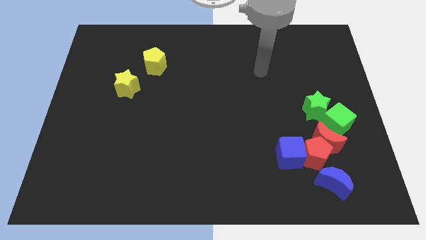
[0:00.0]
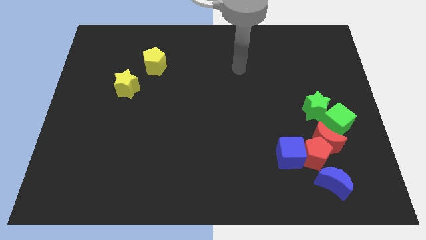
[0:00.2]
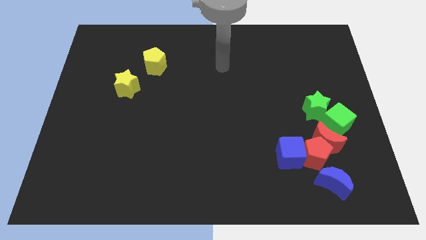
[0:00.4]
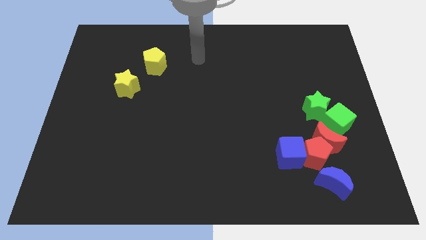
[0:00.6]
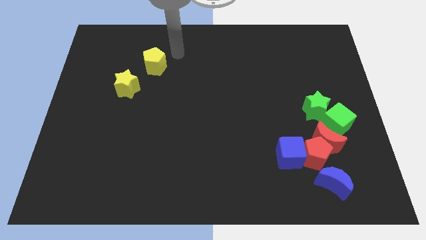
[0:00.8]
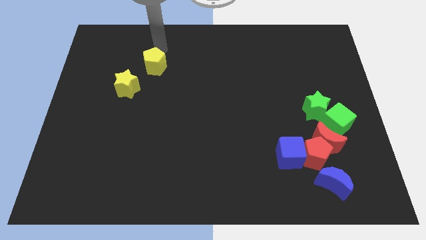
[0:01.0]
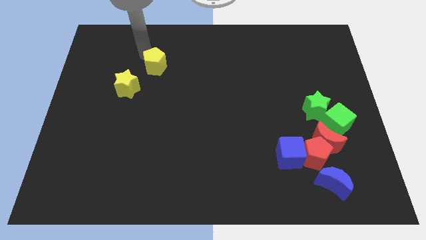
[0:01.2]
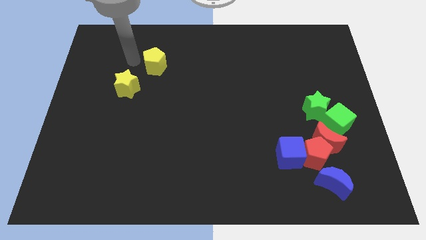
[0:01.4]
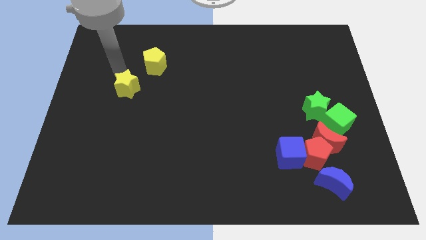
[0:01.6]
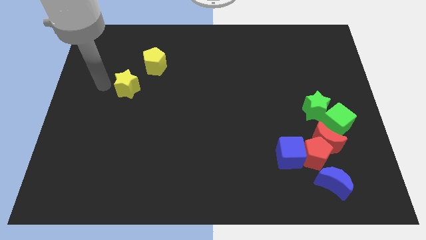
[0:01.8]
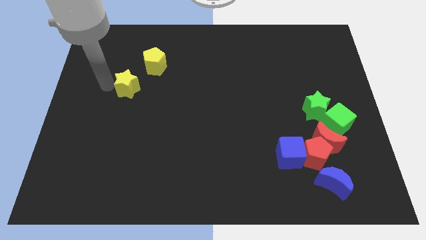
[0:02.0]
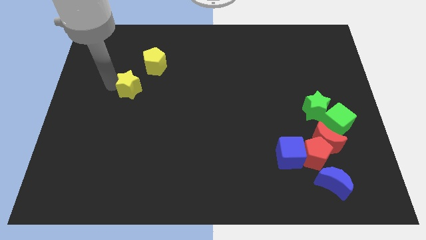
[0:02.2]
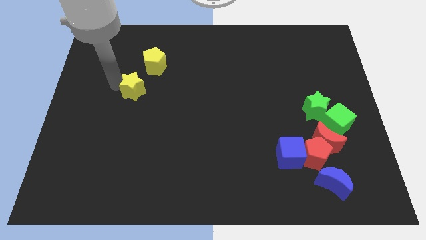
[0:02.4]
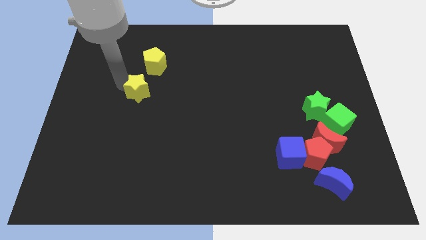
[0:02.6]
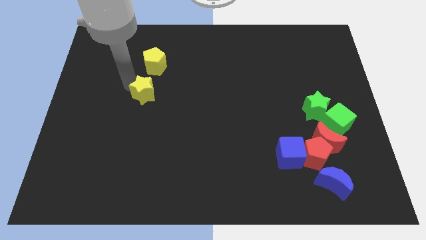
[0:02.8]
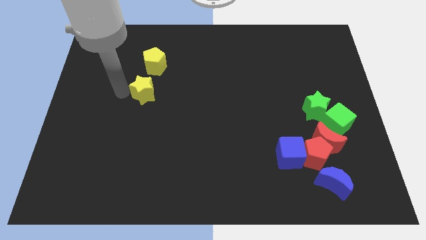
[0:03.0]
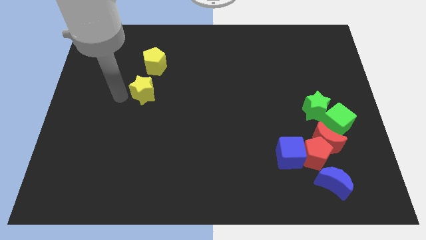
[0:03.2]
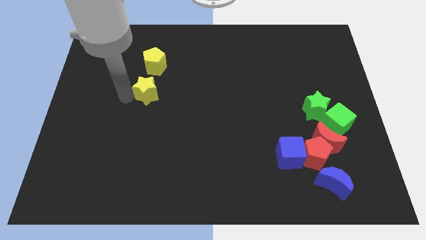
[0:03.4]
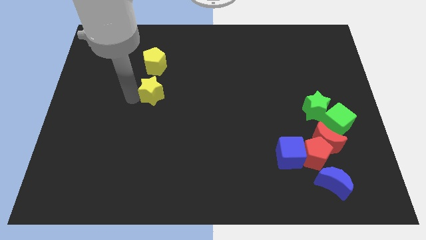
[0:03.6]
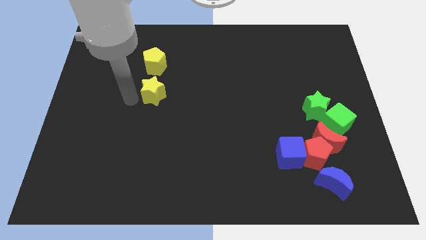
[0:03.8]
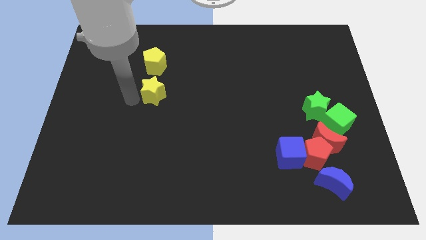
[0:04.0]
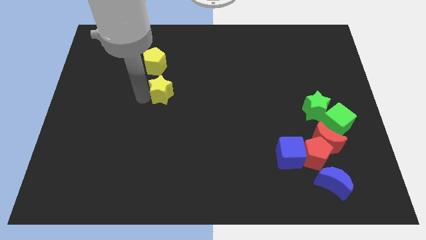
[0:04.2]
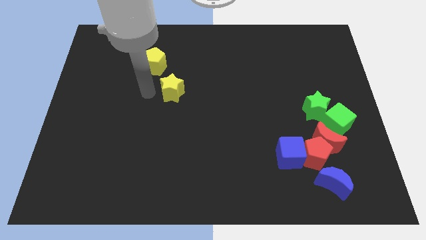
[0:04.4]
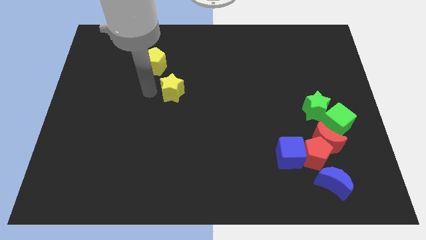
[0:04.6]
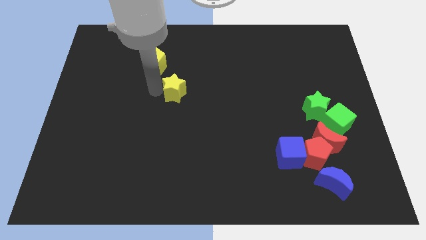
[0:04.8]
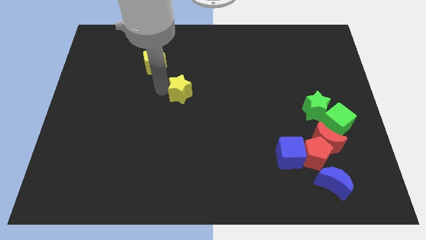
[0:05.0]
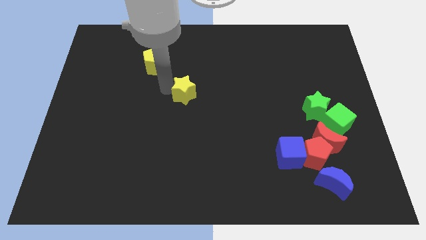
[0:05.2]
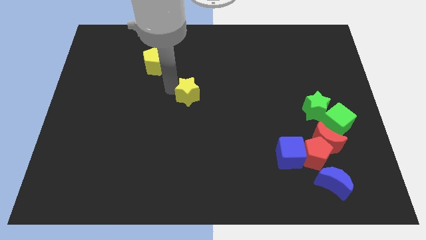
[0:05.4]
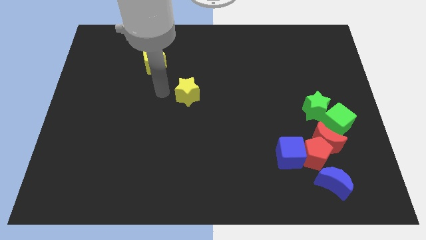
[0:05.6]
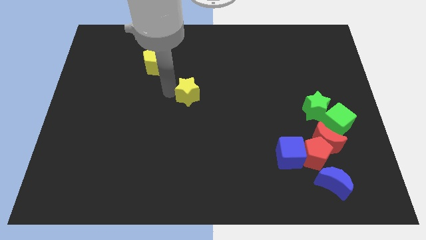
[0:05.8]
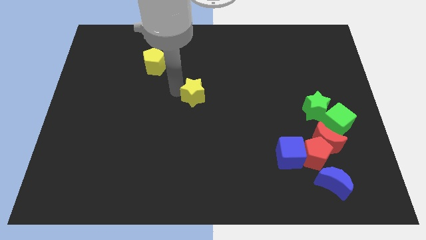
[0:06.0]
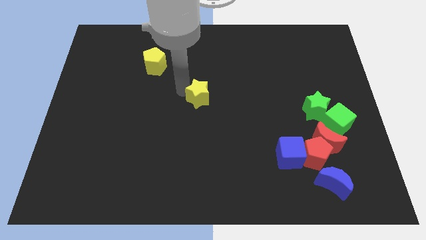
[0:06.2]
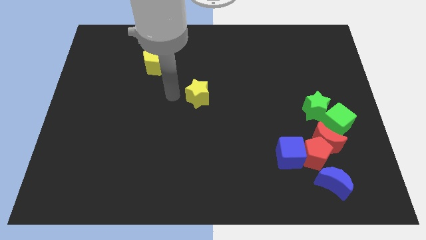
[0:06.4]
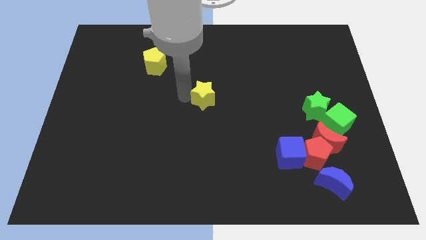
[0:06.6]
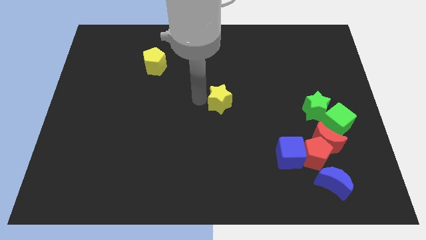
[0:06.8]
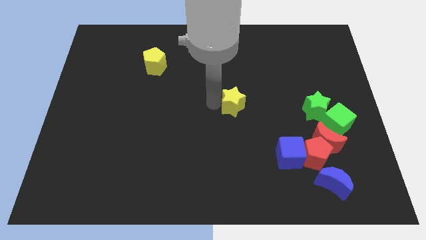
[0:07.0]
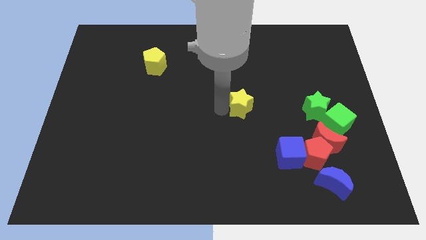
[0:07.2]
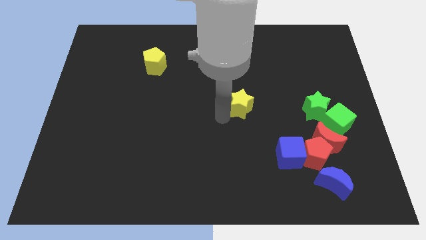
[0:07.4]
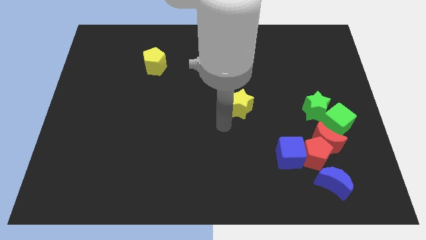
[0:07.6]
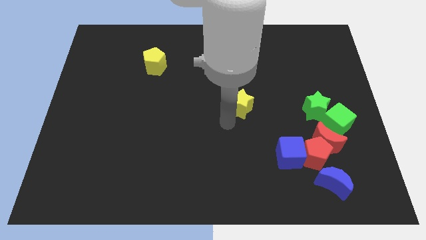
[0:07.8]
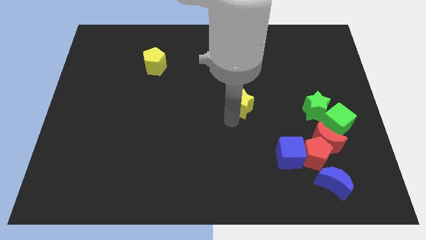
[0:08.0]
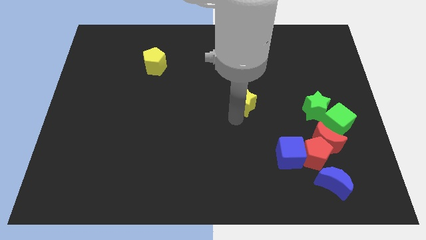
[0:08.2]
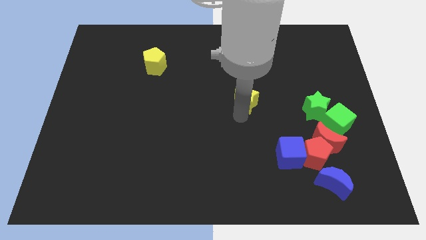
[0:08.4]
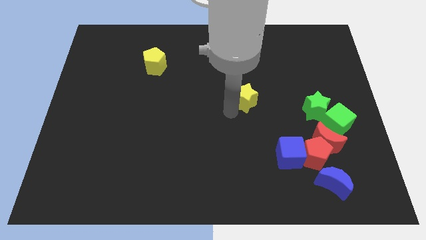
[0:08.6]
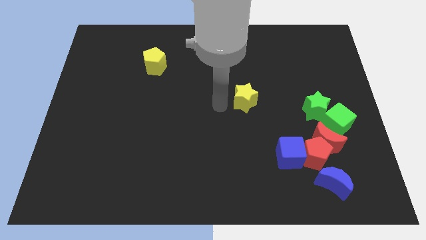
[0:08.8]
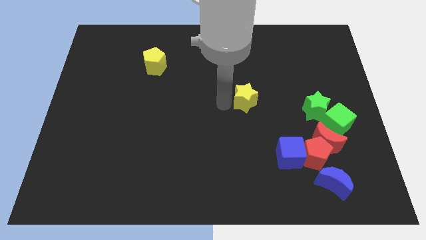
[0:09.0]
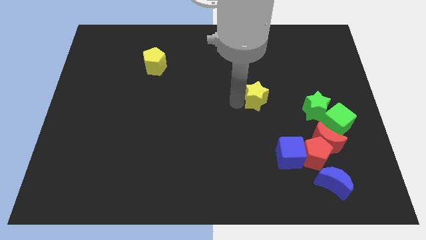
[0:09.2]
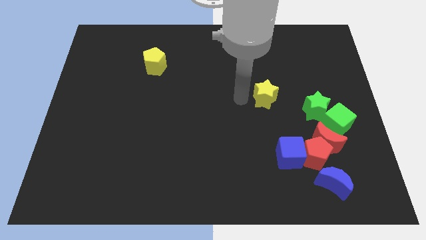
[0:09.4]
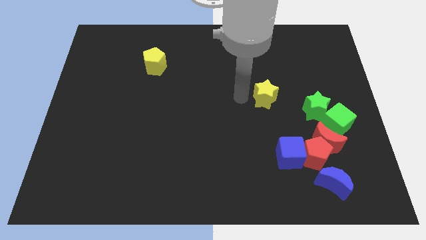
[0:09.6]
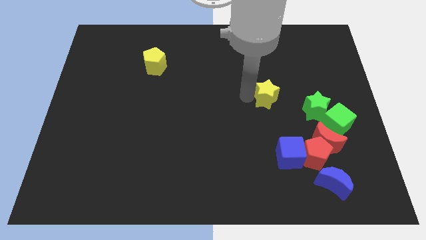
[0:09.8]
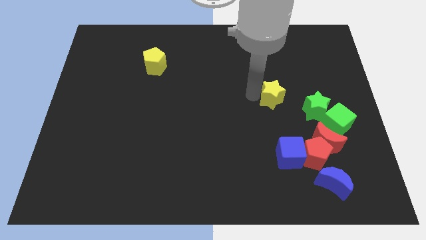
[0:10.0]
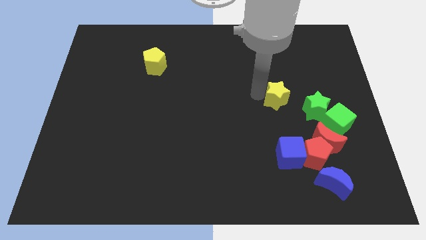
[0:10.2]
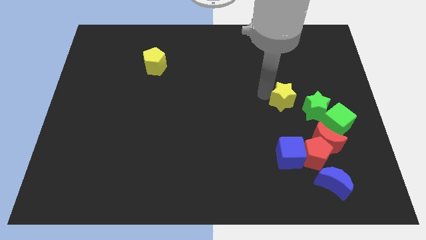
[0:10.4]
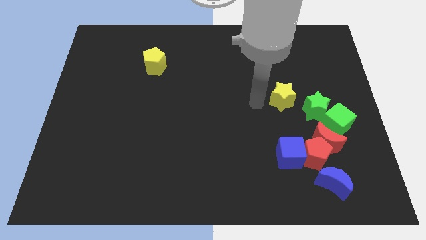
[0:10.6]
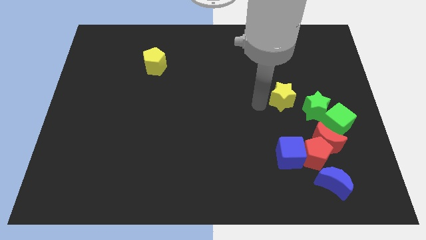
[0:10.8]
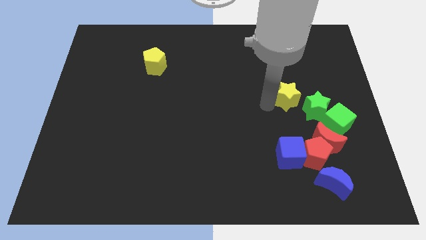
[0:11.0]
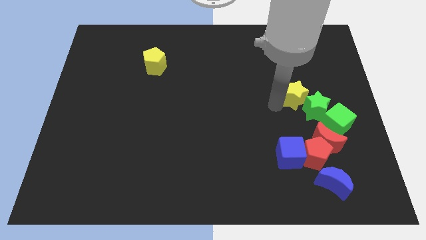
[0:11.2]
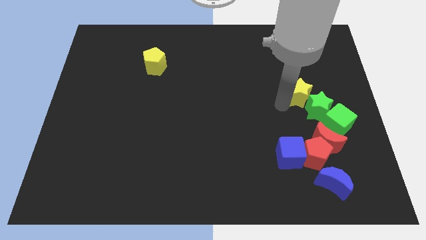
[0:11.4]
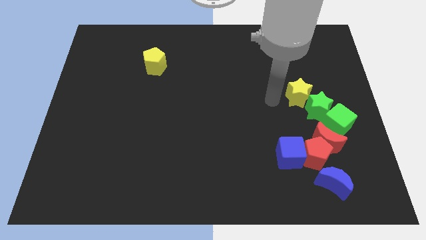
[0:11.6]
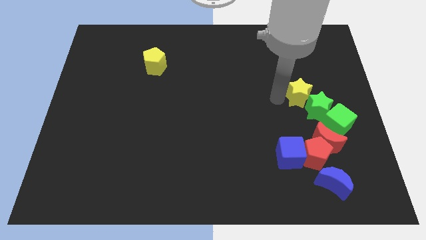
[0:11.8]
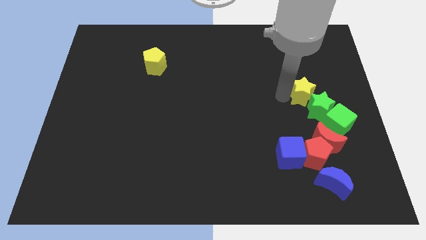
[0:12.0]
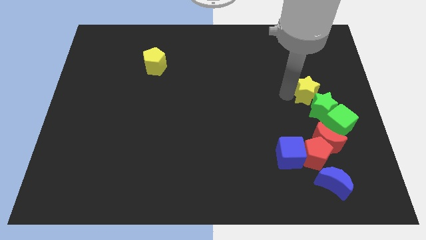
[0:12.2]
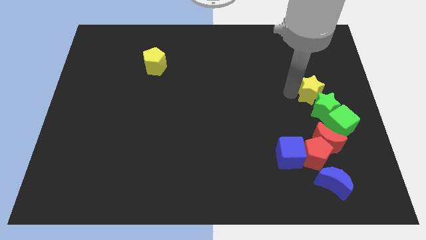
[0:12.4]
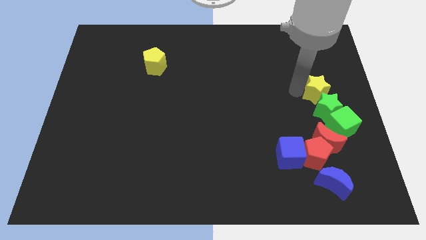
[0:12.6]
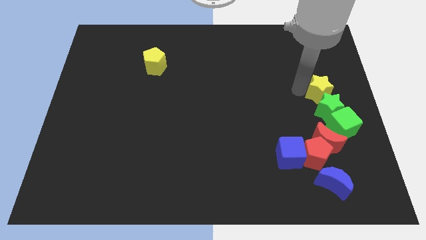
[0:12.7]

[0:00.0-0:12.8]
move the yellow star to the center right
